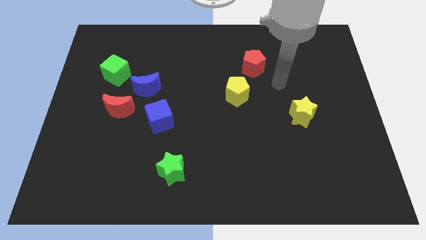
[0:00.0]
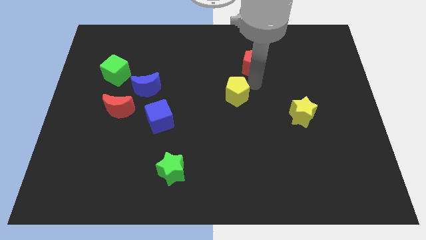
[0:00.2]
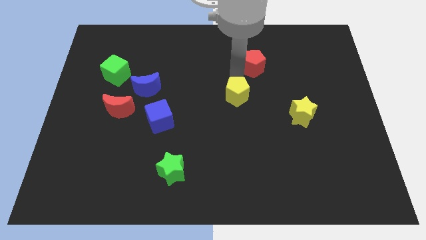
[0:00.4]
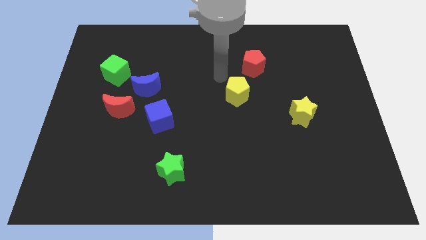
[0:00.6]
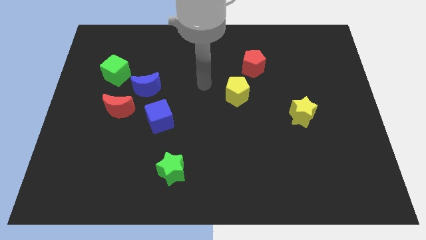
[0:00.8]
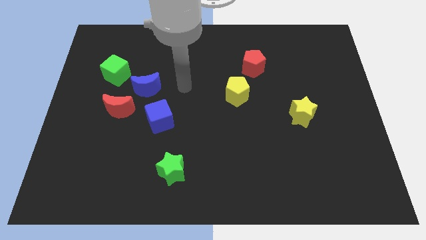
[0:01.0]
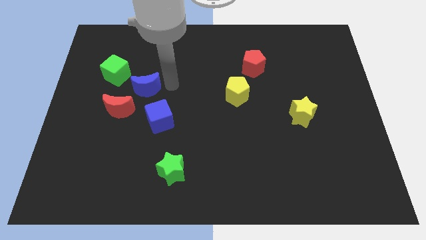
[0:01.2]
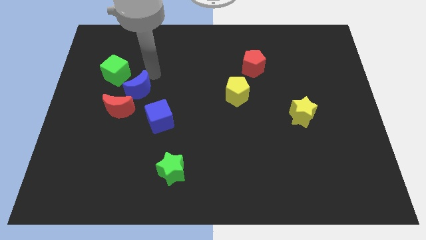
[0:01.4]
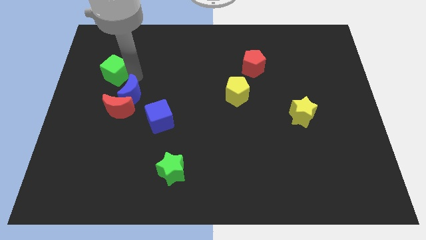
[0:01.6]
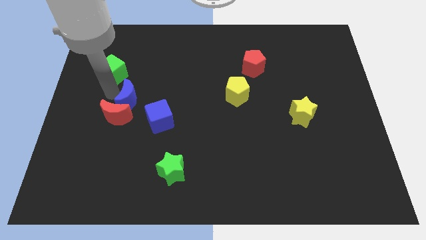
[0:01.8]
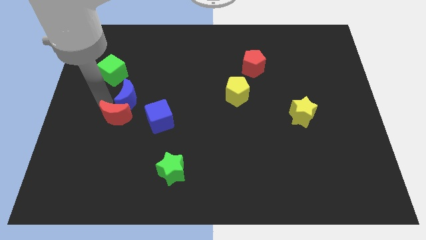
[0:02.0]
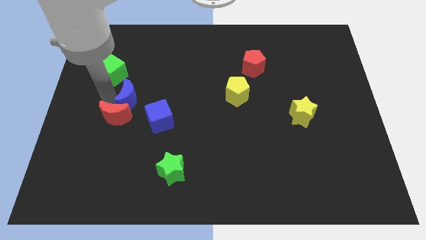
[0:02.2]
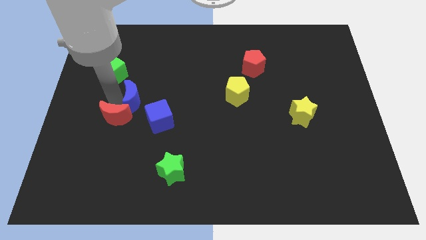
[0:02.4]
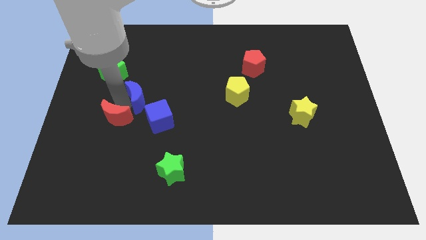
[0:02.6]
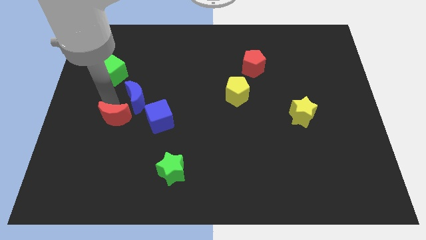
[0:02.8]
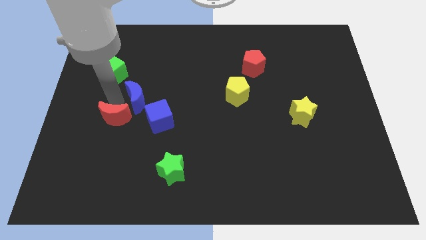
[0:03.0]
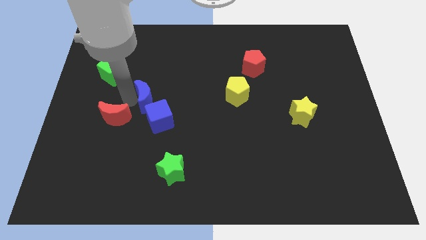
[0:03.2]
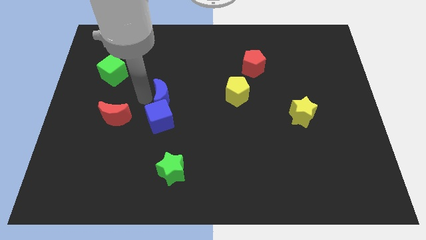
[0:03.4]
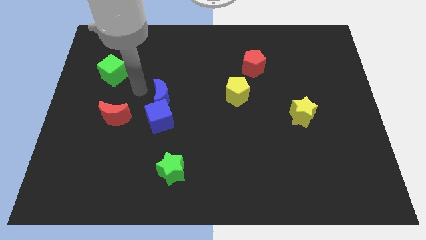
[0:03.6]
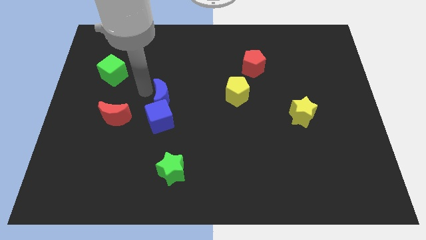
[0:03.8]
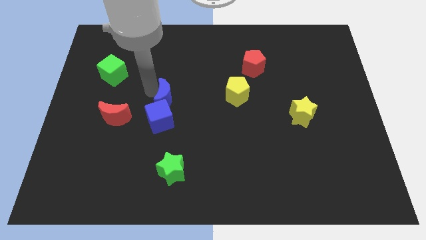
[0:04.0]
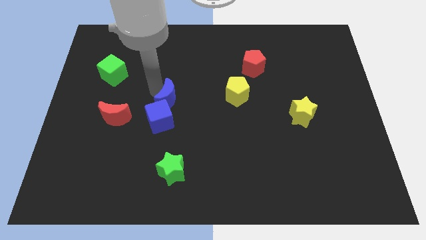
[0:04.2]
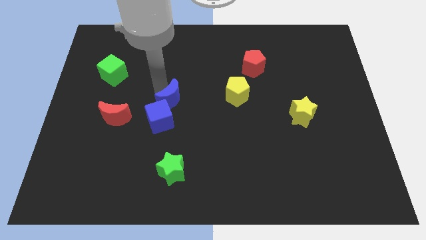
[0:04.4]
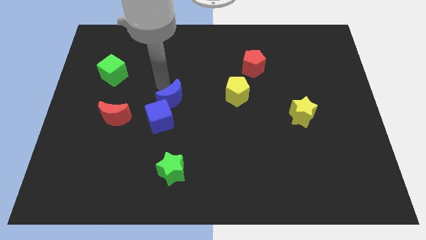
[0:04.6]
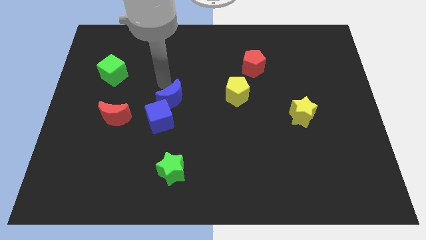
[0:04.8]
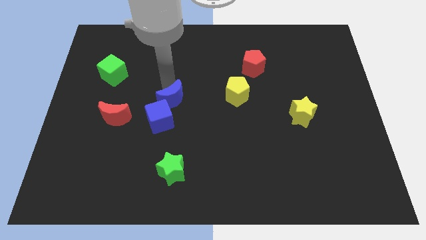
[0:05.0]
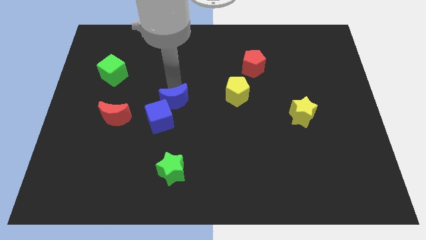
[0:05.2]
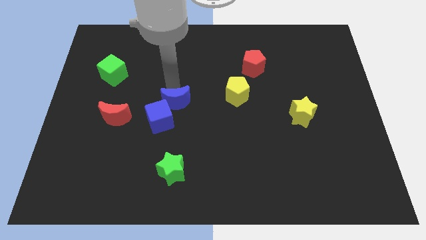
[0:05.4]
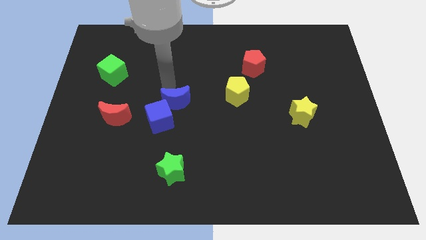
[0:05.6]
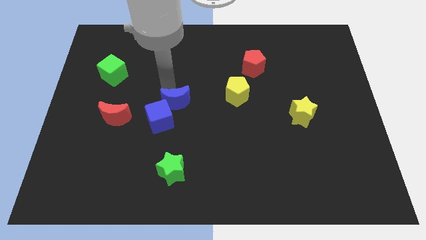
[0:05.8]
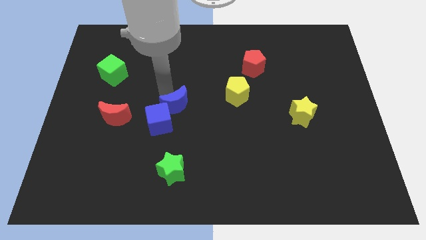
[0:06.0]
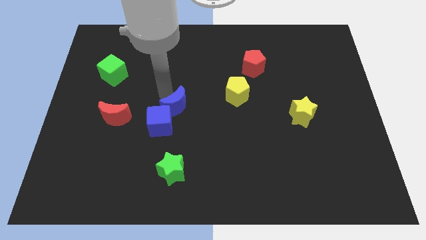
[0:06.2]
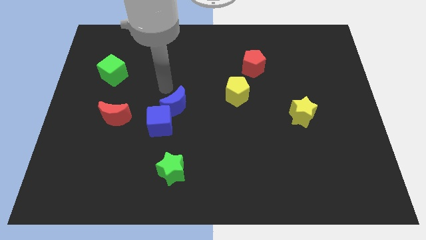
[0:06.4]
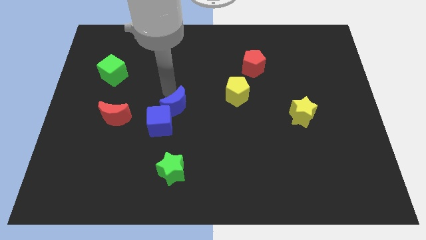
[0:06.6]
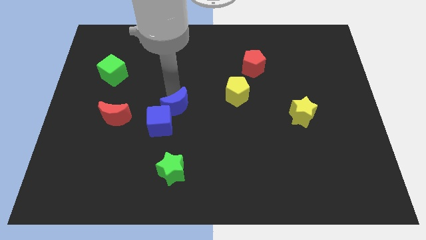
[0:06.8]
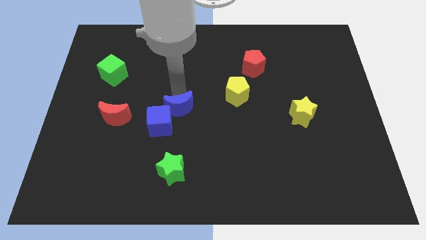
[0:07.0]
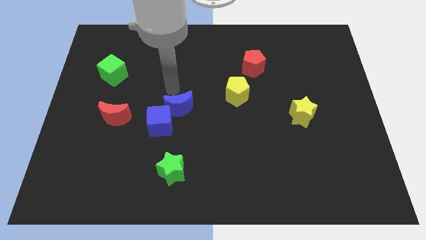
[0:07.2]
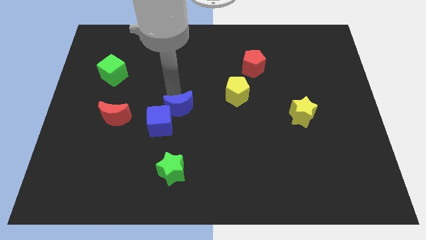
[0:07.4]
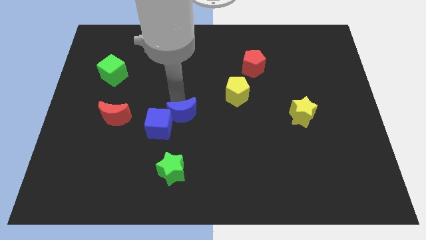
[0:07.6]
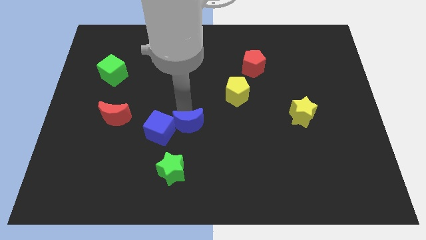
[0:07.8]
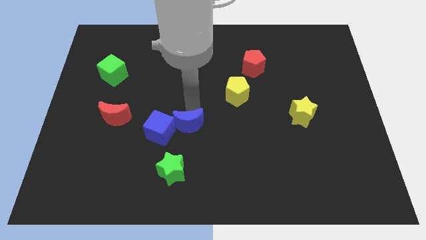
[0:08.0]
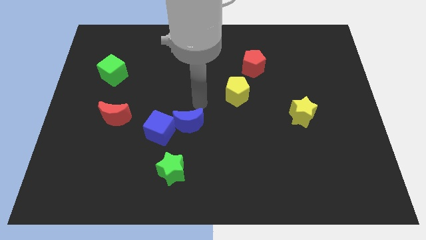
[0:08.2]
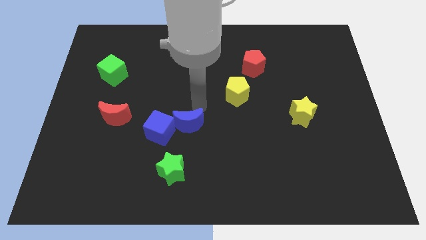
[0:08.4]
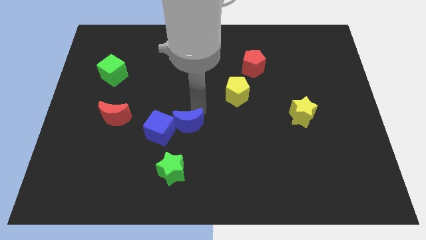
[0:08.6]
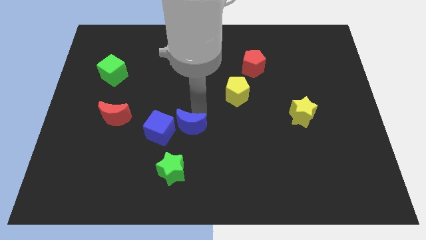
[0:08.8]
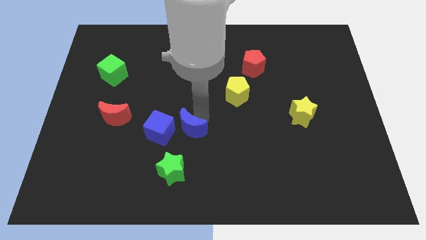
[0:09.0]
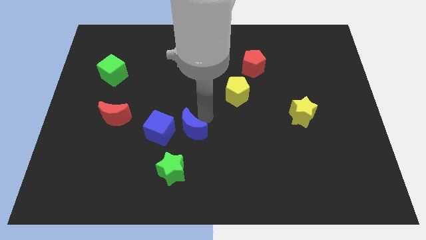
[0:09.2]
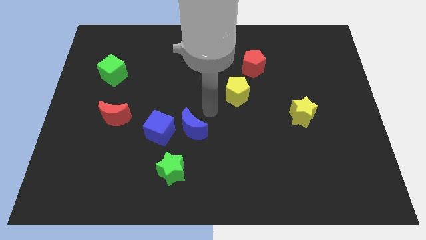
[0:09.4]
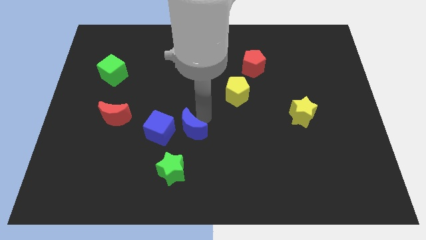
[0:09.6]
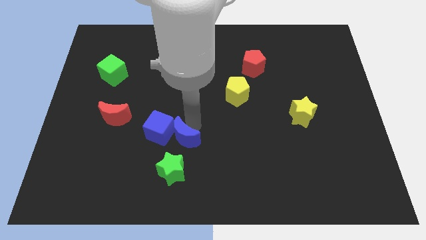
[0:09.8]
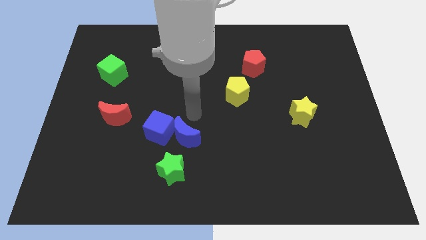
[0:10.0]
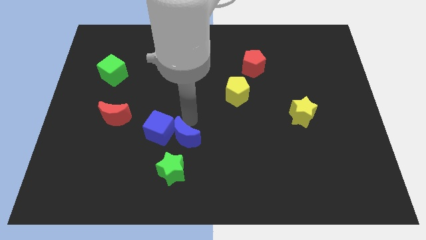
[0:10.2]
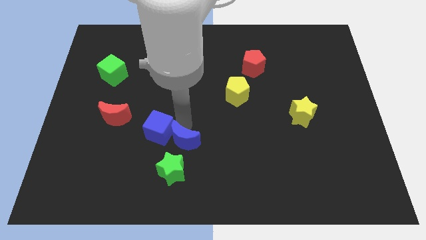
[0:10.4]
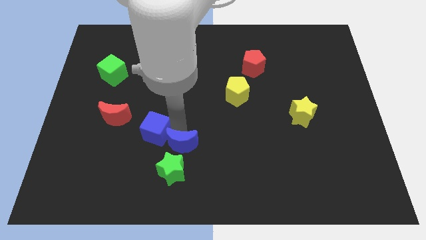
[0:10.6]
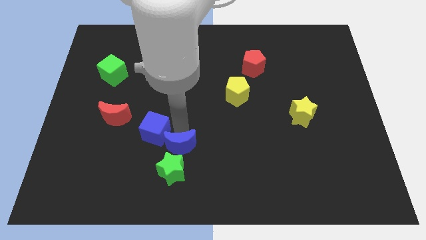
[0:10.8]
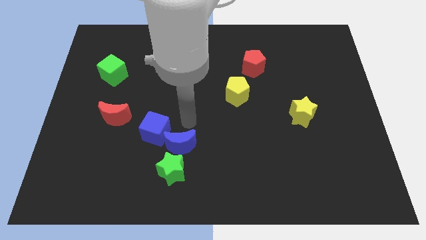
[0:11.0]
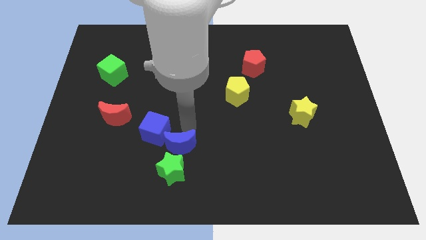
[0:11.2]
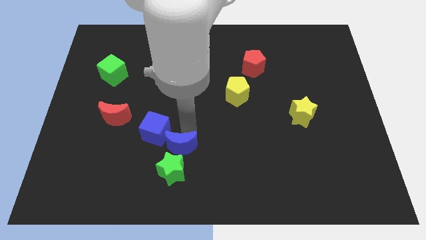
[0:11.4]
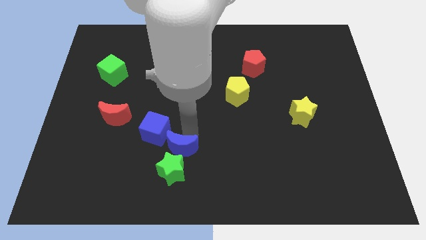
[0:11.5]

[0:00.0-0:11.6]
push the blue moon to the green star
